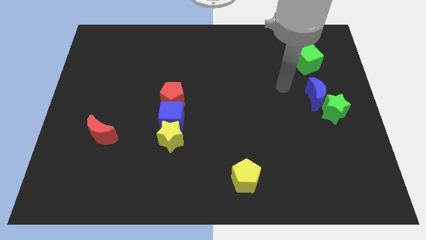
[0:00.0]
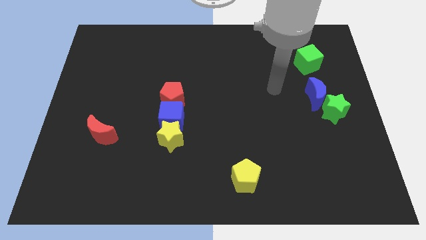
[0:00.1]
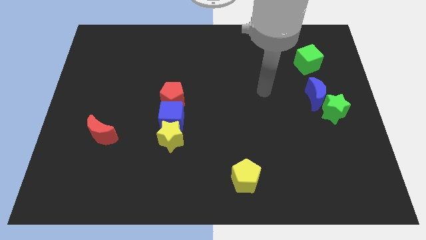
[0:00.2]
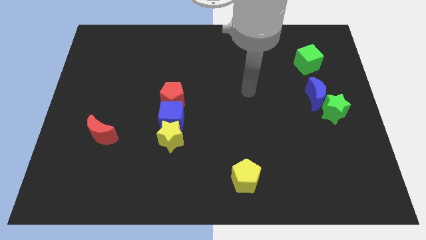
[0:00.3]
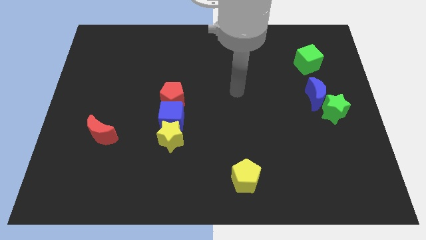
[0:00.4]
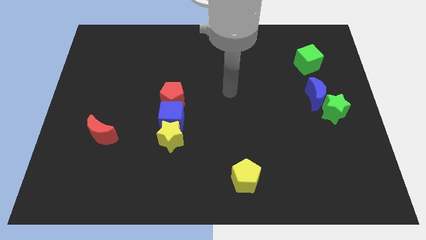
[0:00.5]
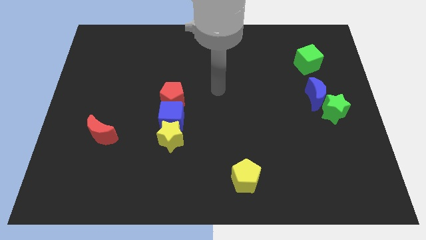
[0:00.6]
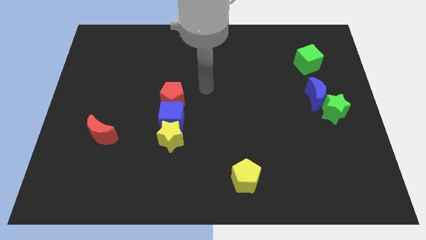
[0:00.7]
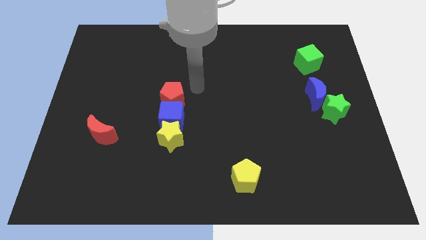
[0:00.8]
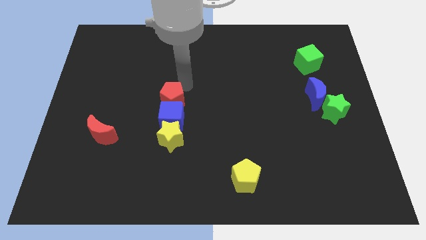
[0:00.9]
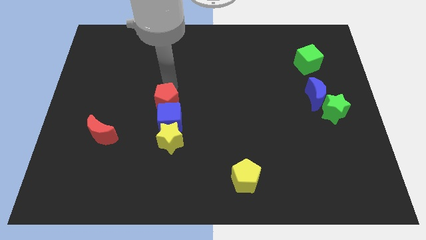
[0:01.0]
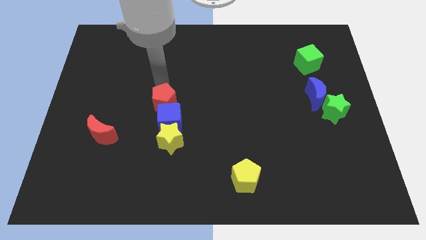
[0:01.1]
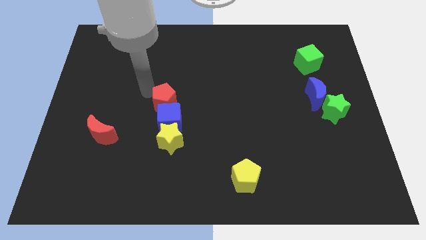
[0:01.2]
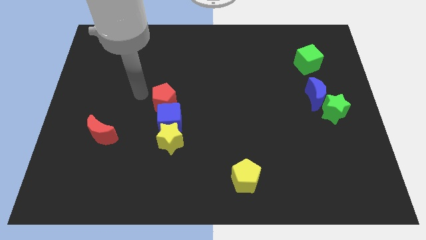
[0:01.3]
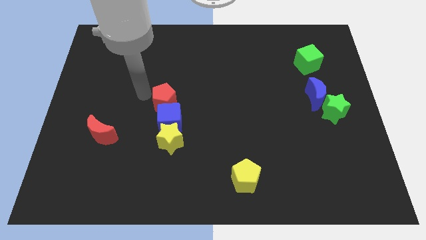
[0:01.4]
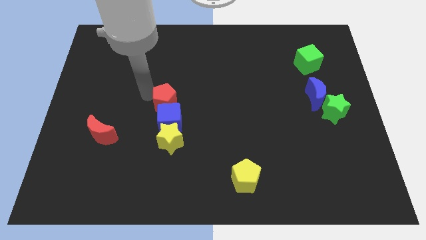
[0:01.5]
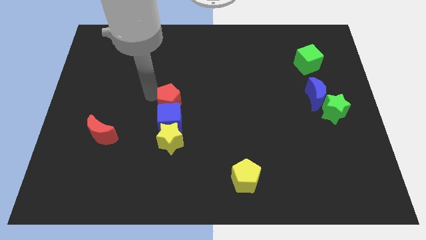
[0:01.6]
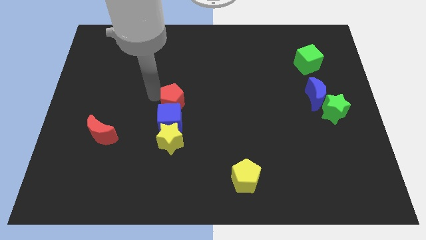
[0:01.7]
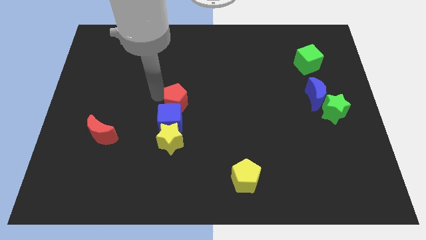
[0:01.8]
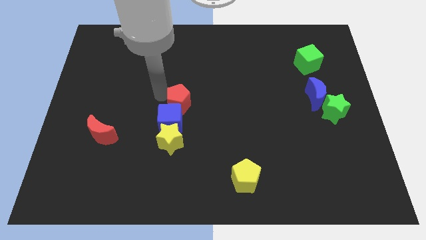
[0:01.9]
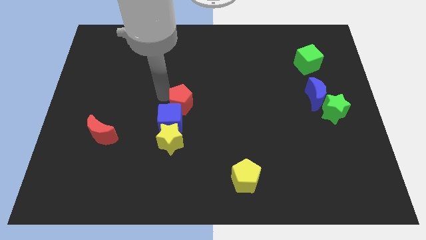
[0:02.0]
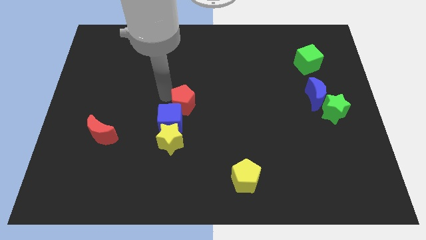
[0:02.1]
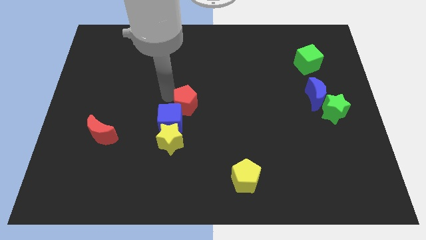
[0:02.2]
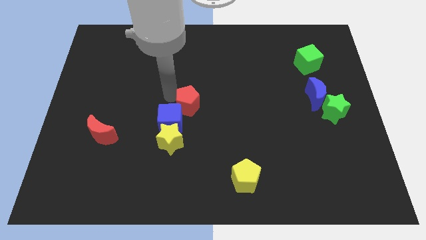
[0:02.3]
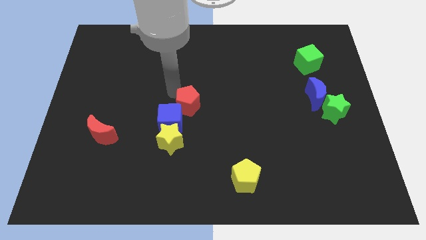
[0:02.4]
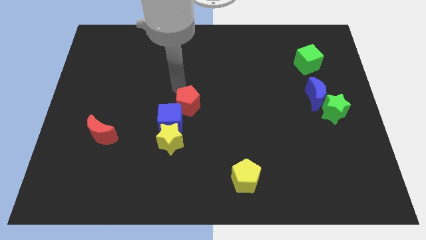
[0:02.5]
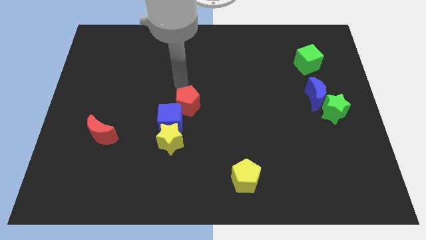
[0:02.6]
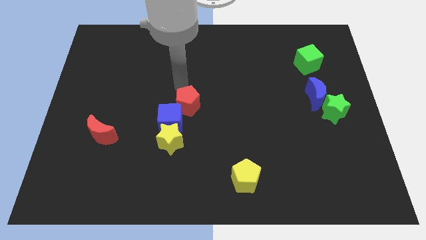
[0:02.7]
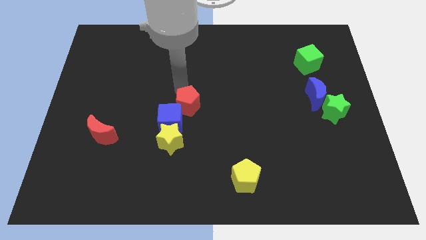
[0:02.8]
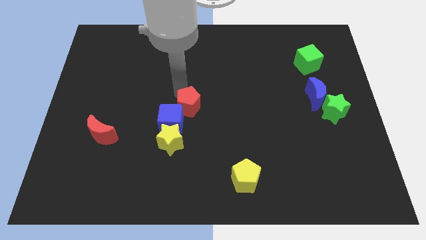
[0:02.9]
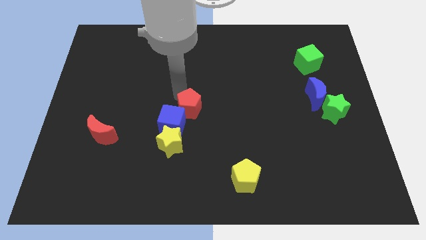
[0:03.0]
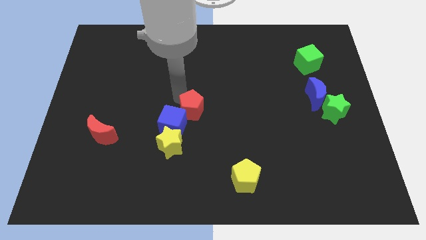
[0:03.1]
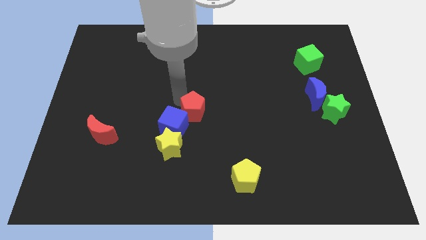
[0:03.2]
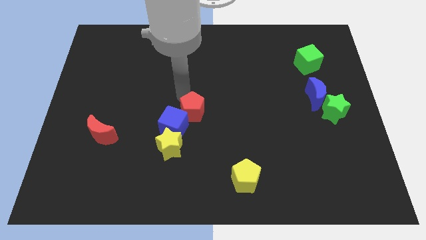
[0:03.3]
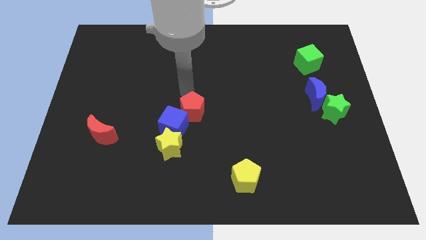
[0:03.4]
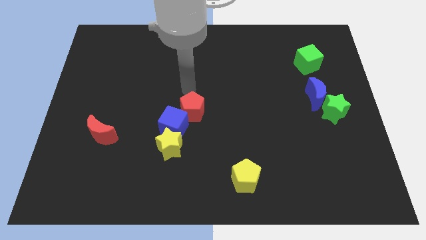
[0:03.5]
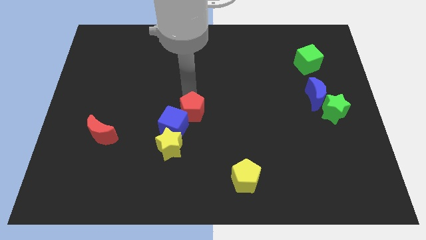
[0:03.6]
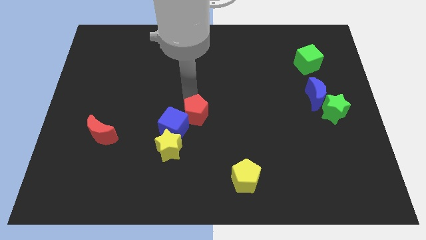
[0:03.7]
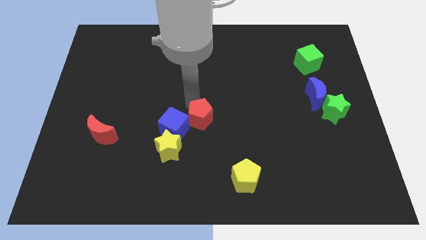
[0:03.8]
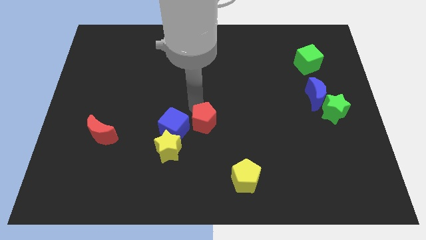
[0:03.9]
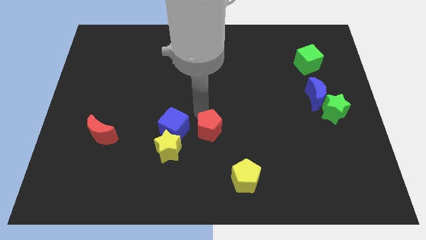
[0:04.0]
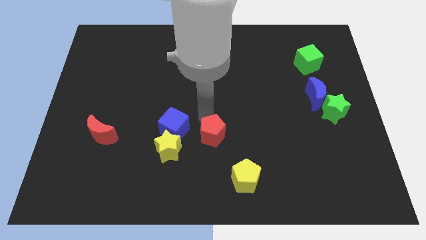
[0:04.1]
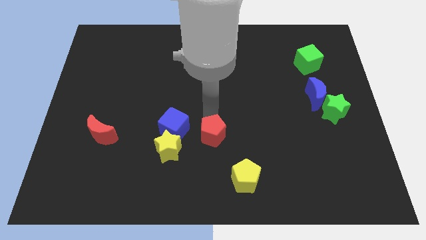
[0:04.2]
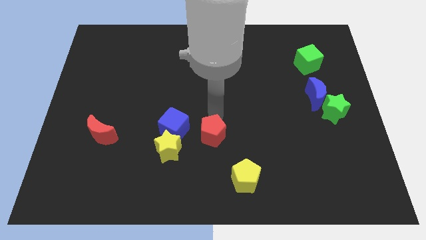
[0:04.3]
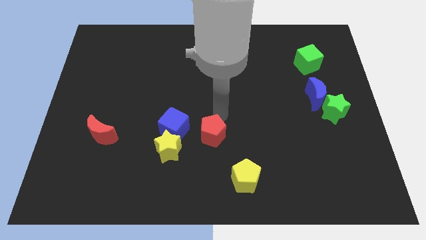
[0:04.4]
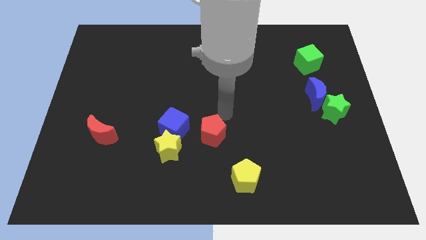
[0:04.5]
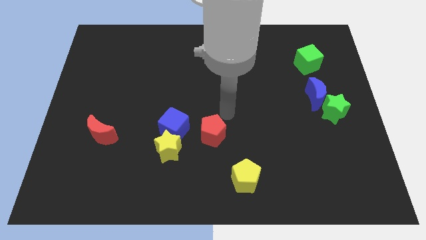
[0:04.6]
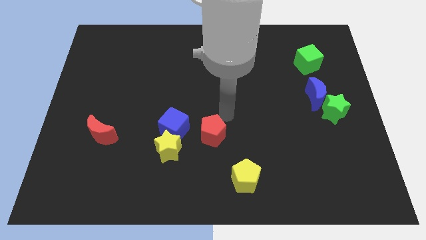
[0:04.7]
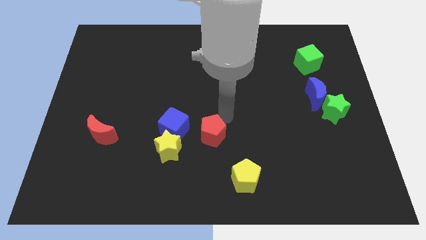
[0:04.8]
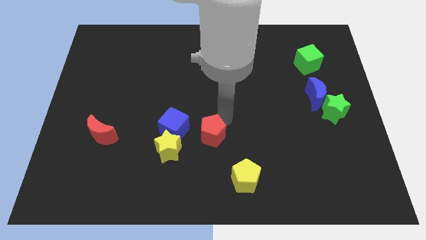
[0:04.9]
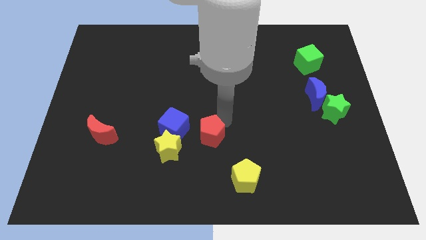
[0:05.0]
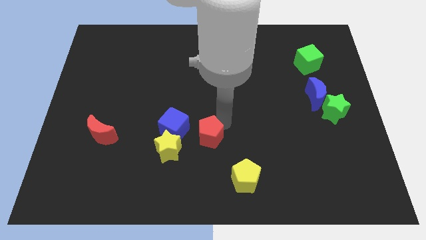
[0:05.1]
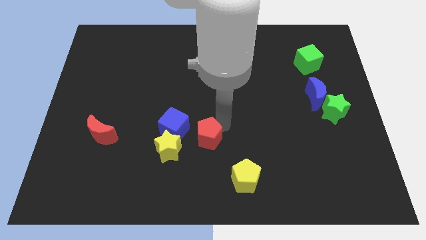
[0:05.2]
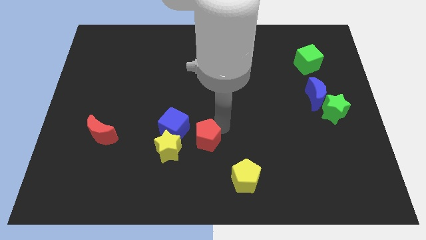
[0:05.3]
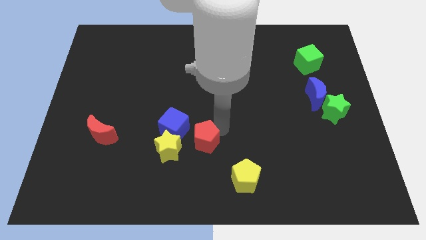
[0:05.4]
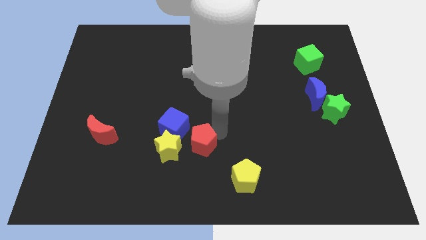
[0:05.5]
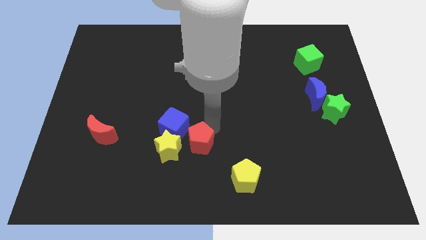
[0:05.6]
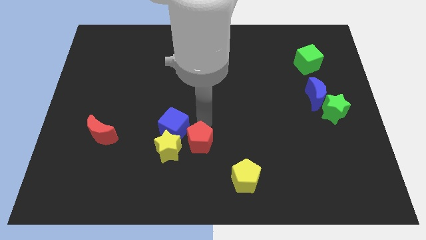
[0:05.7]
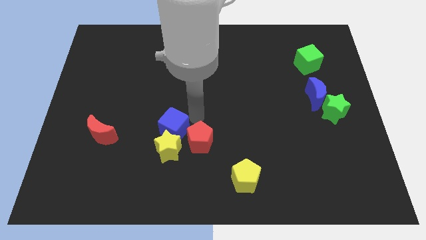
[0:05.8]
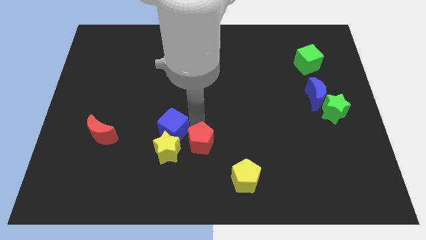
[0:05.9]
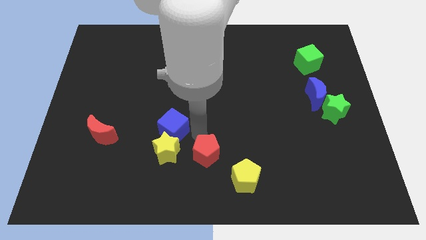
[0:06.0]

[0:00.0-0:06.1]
slide the red pentagon to the bottom side
